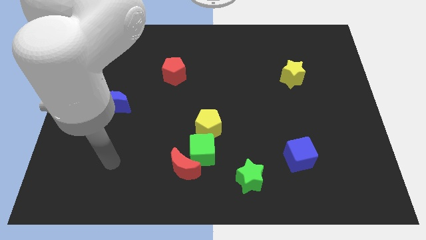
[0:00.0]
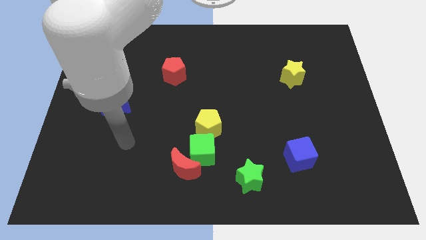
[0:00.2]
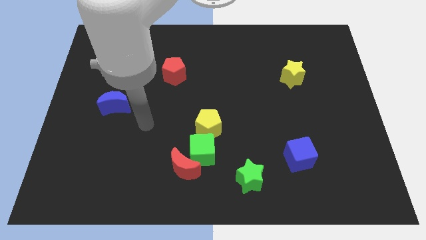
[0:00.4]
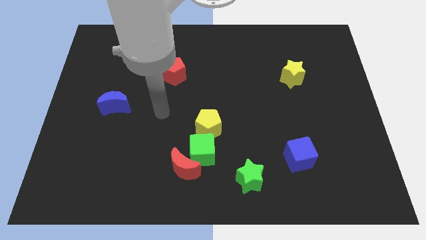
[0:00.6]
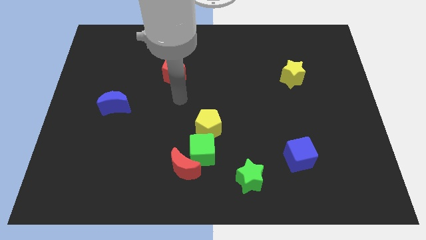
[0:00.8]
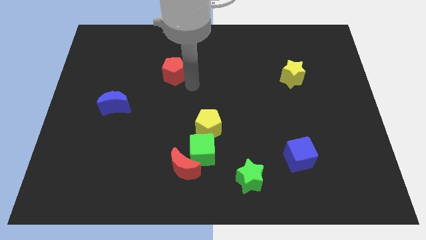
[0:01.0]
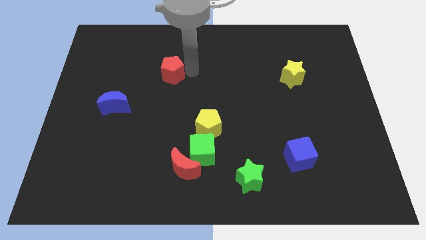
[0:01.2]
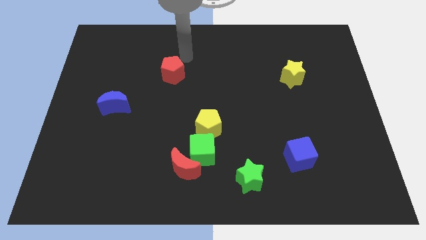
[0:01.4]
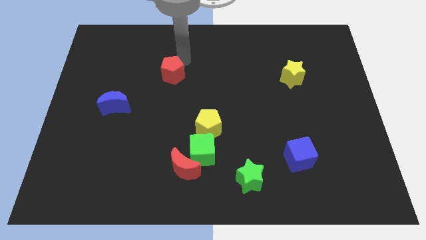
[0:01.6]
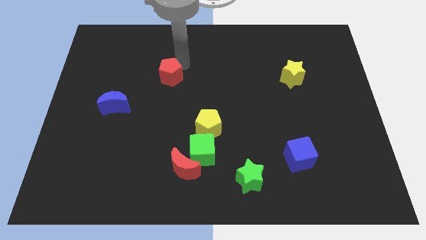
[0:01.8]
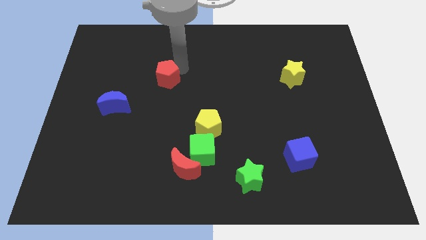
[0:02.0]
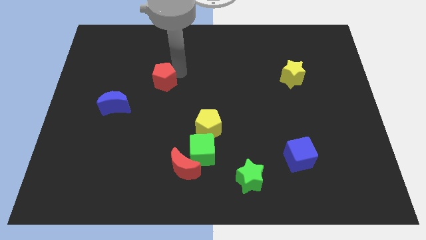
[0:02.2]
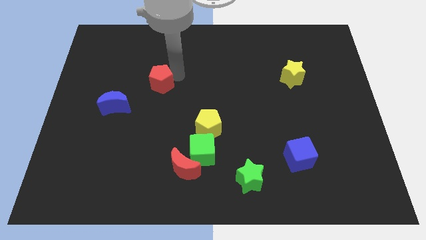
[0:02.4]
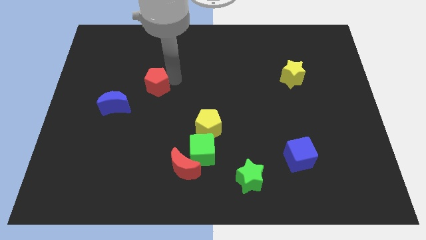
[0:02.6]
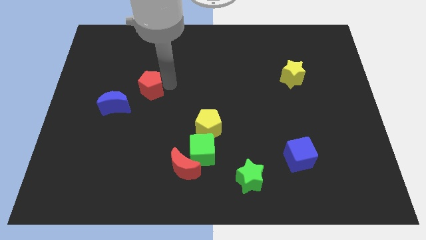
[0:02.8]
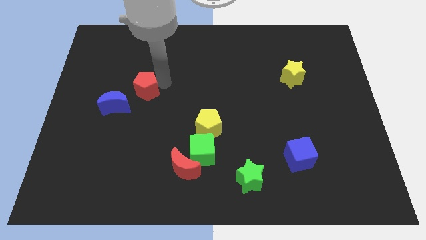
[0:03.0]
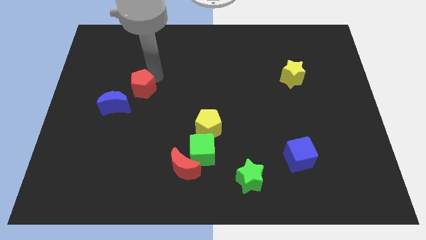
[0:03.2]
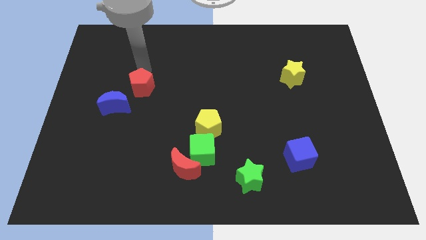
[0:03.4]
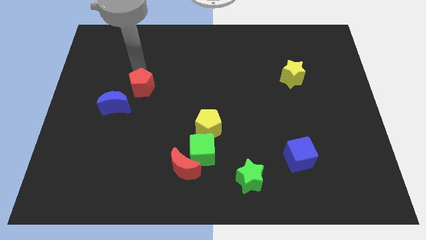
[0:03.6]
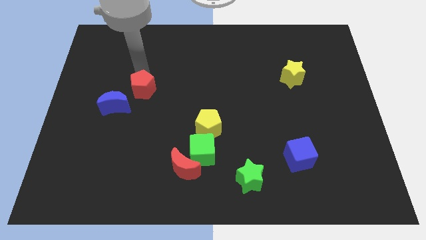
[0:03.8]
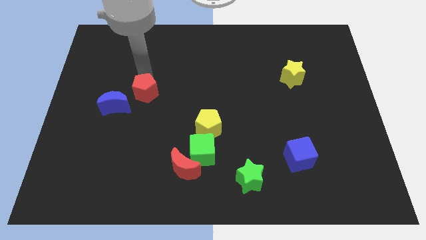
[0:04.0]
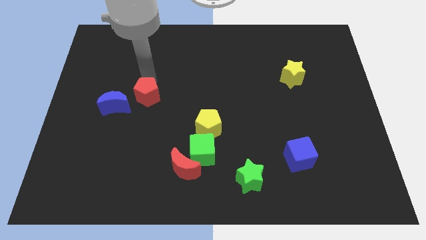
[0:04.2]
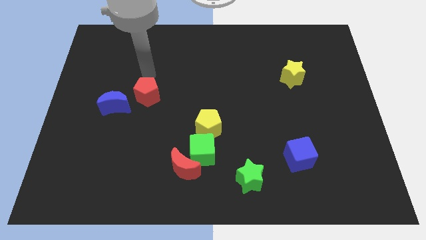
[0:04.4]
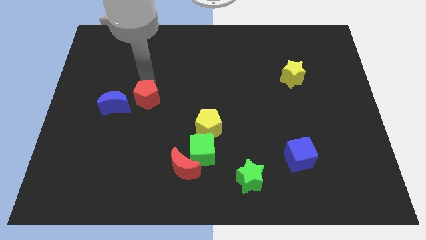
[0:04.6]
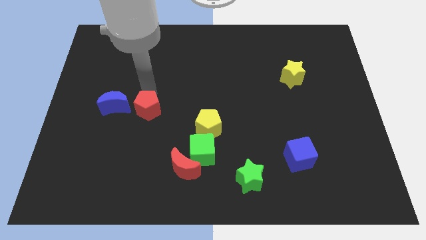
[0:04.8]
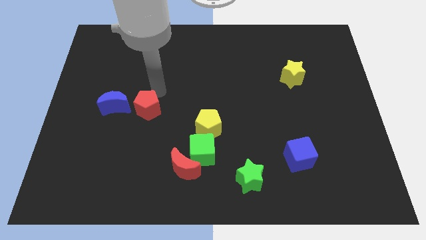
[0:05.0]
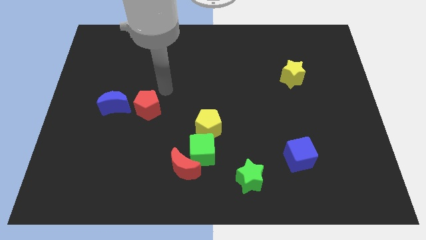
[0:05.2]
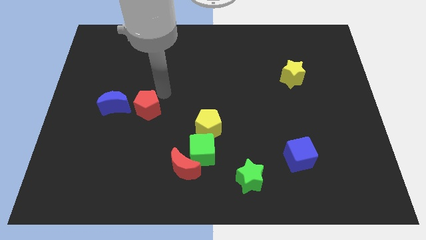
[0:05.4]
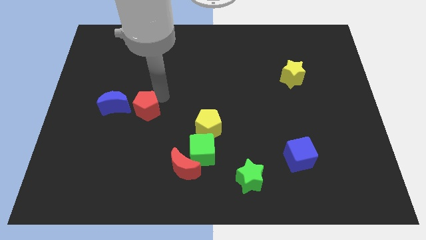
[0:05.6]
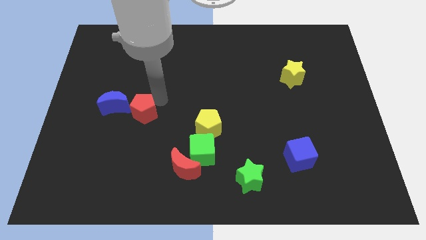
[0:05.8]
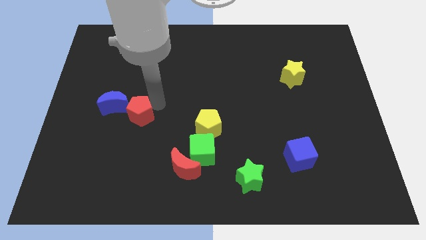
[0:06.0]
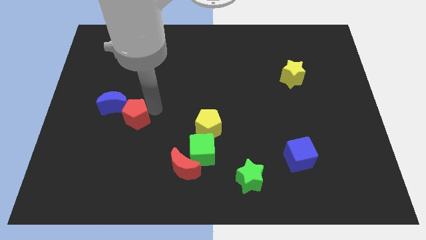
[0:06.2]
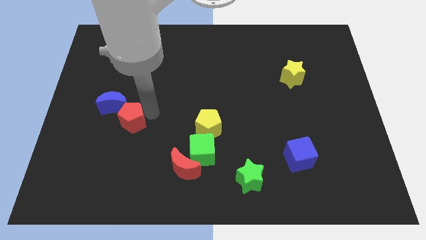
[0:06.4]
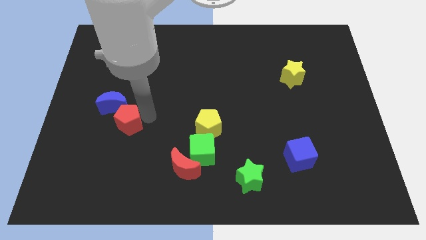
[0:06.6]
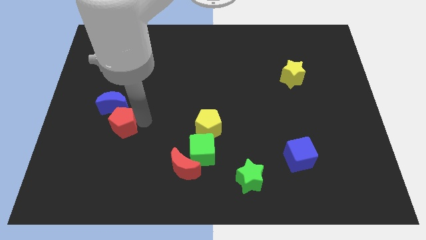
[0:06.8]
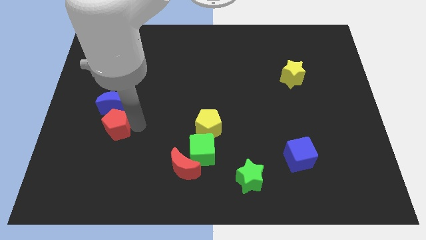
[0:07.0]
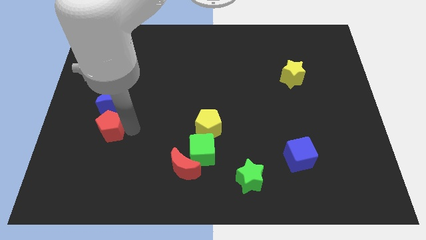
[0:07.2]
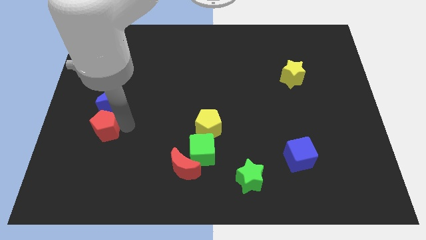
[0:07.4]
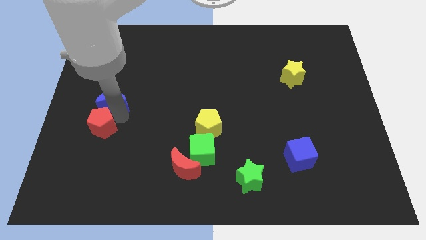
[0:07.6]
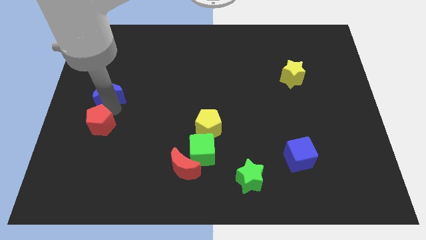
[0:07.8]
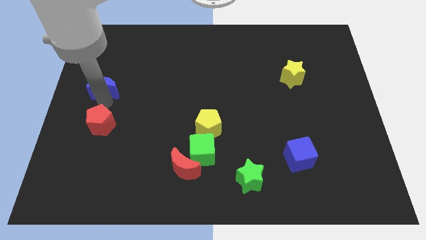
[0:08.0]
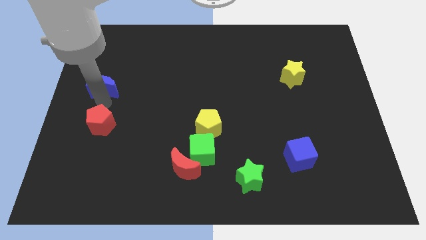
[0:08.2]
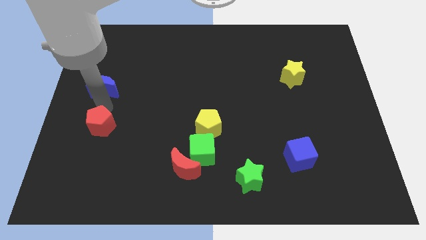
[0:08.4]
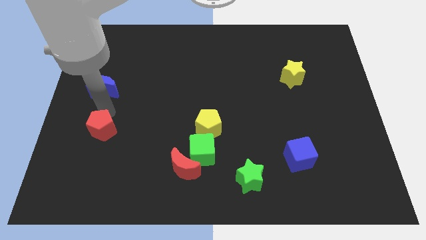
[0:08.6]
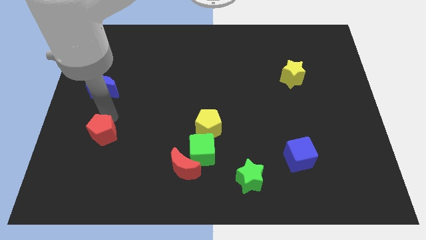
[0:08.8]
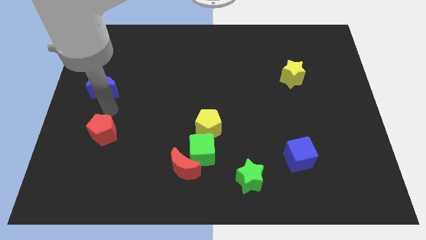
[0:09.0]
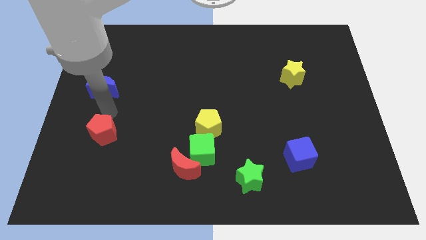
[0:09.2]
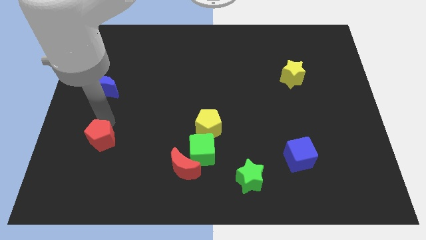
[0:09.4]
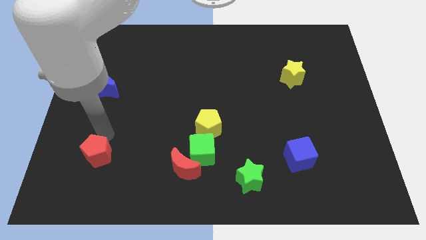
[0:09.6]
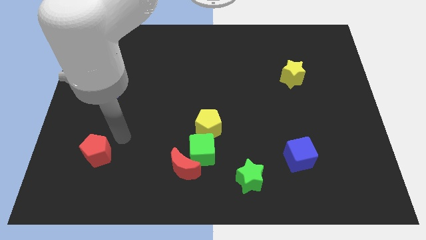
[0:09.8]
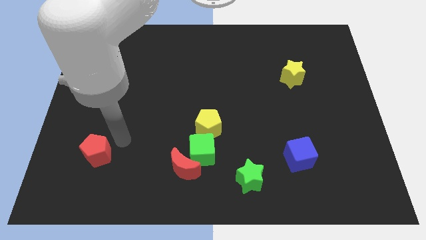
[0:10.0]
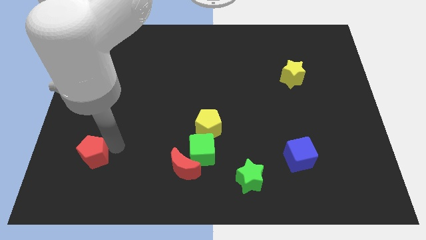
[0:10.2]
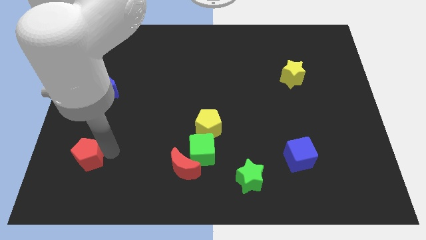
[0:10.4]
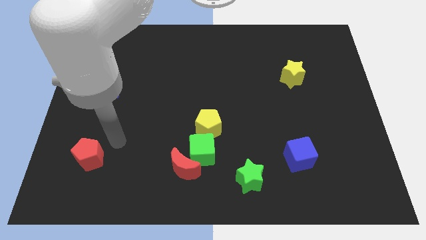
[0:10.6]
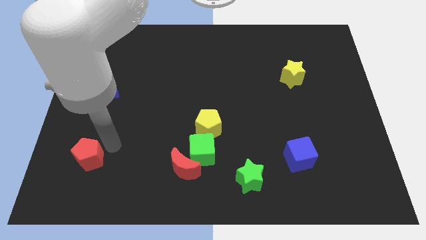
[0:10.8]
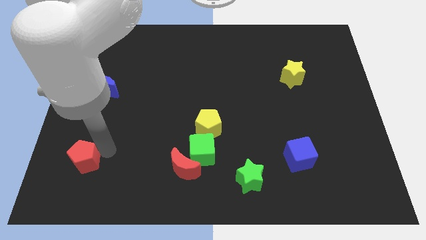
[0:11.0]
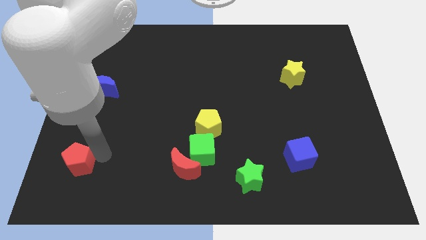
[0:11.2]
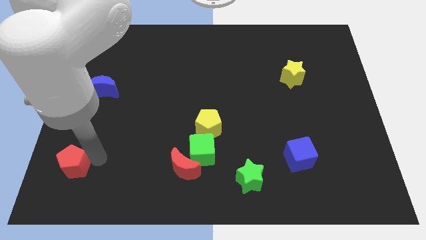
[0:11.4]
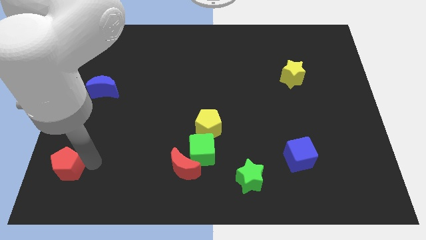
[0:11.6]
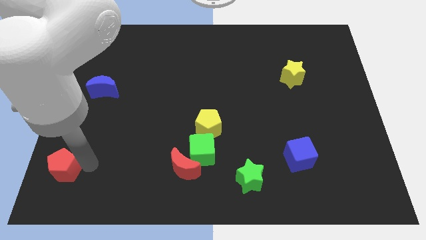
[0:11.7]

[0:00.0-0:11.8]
put the red pentagon to the bottom left of the board
